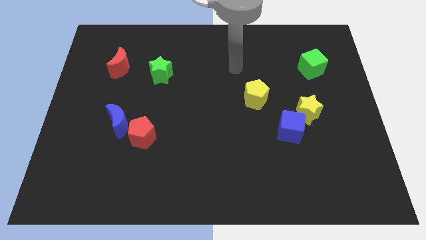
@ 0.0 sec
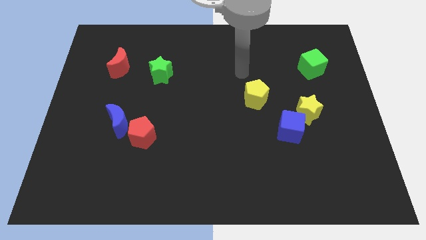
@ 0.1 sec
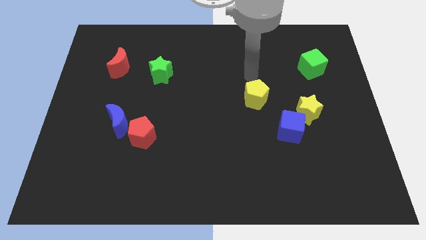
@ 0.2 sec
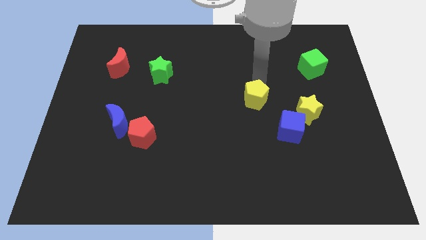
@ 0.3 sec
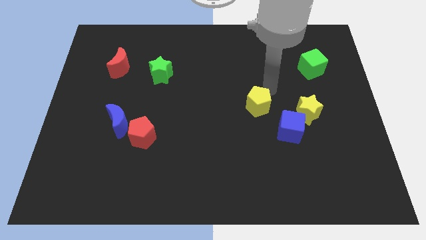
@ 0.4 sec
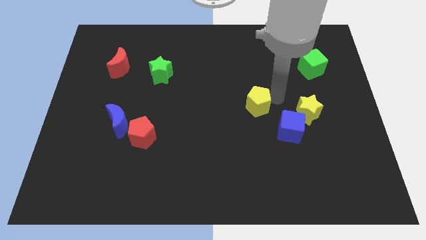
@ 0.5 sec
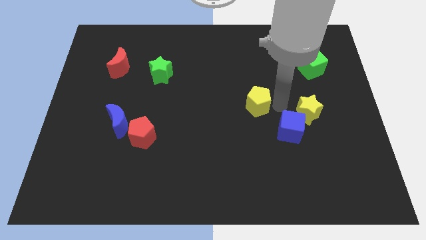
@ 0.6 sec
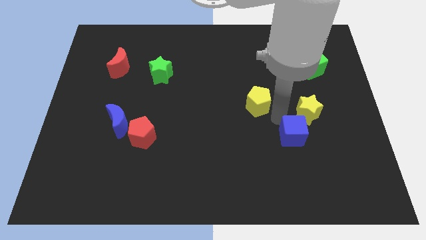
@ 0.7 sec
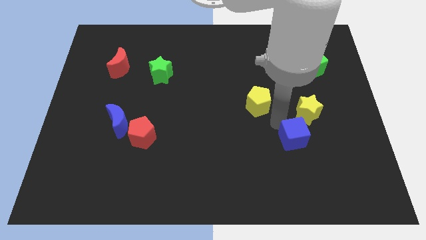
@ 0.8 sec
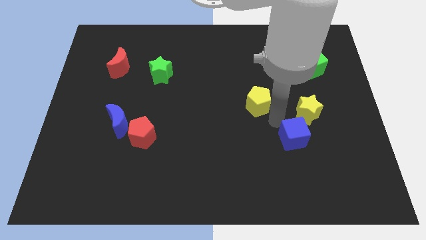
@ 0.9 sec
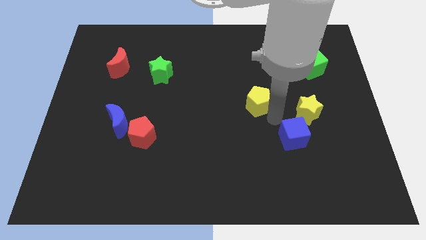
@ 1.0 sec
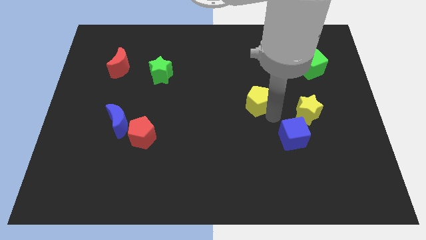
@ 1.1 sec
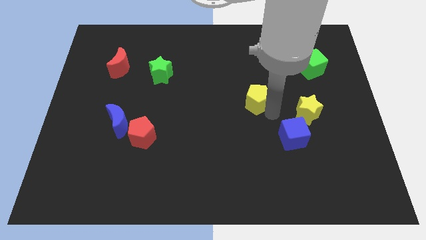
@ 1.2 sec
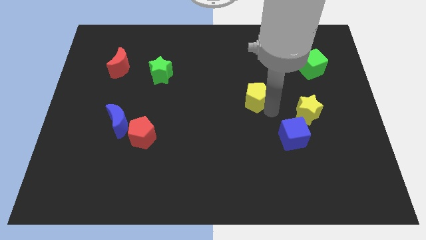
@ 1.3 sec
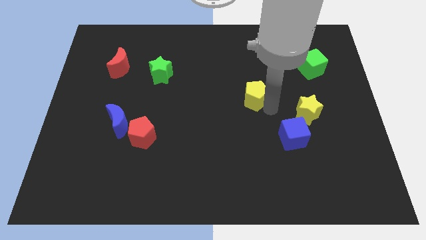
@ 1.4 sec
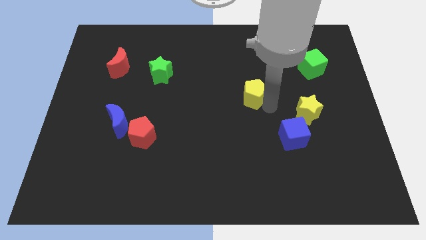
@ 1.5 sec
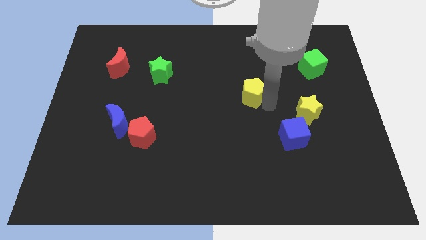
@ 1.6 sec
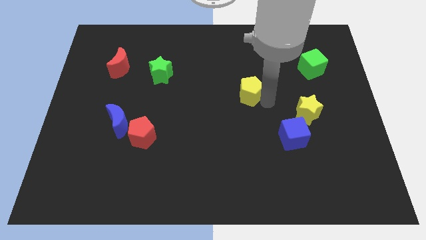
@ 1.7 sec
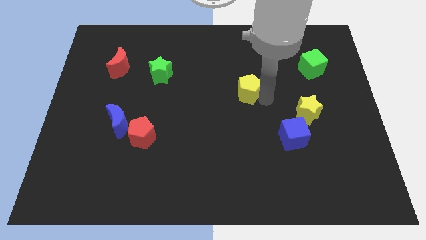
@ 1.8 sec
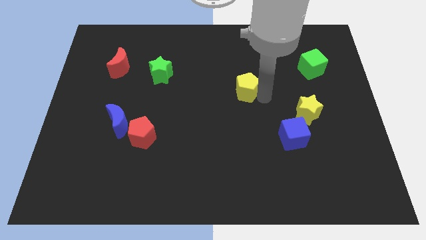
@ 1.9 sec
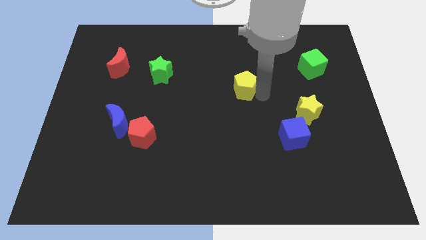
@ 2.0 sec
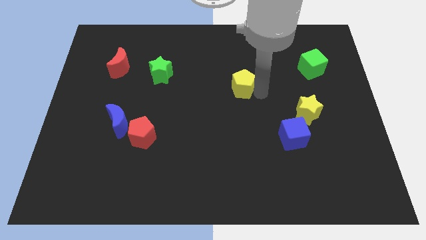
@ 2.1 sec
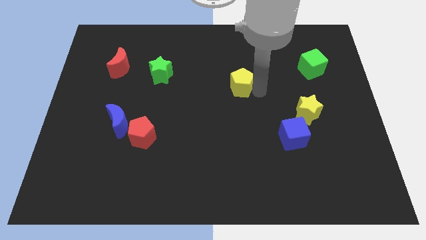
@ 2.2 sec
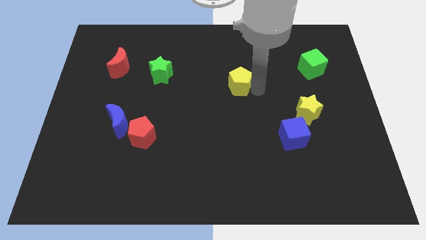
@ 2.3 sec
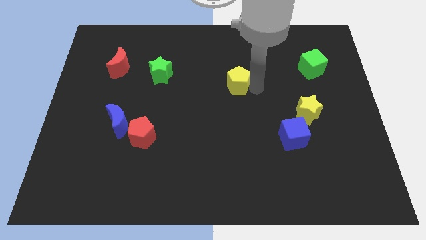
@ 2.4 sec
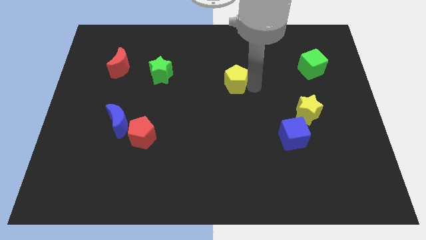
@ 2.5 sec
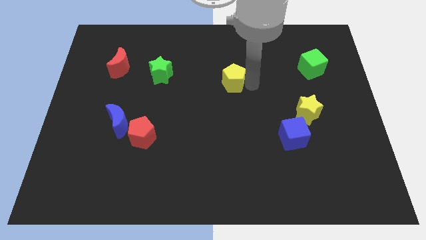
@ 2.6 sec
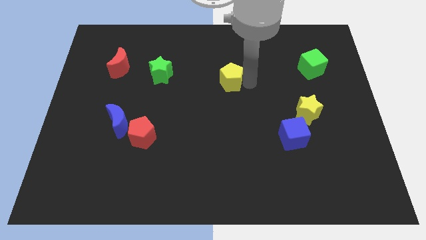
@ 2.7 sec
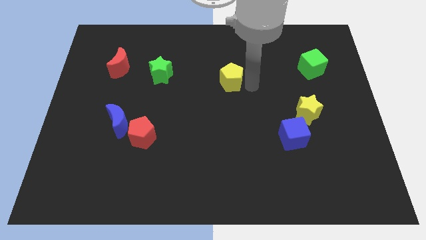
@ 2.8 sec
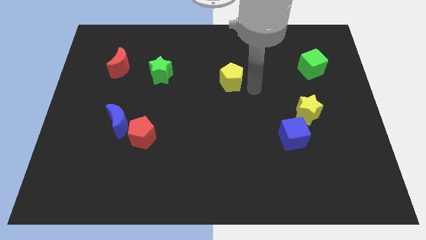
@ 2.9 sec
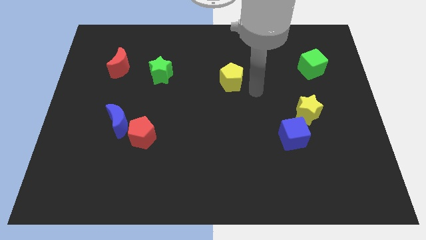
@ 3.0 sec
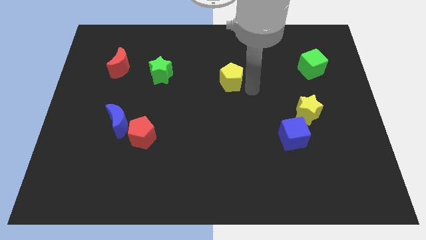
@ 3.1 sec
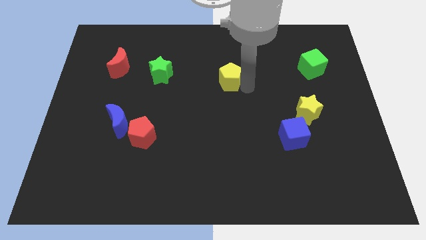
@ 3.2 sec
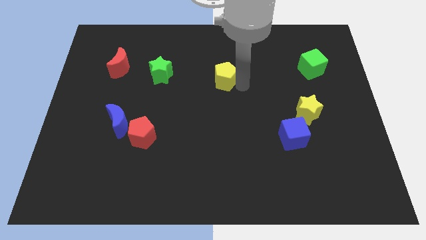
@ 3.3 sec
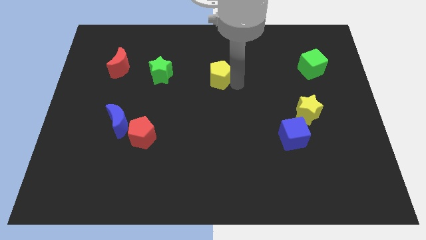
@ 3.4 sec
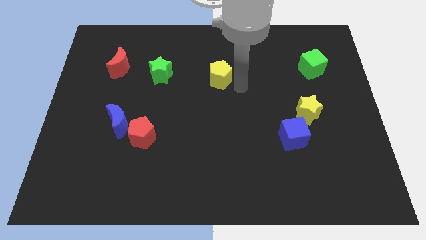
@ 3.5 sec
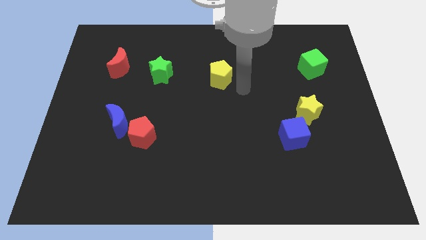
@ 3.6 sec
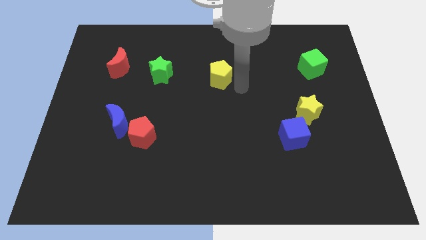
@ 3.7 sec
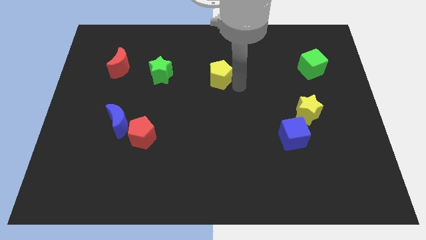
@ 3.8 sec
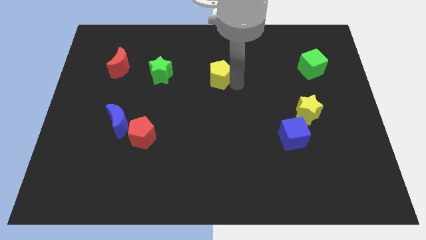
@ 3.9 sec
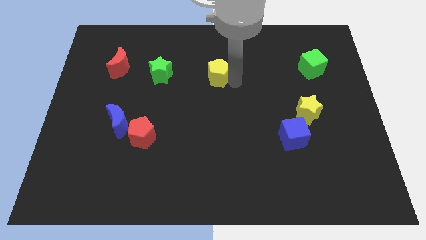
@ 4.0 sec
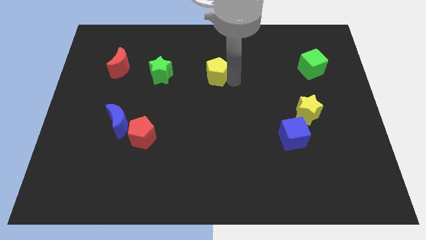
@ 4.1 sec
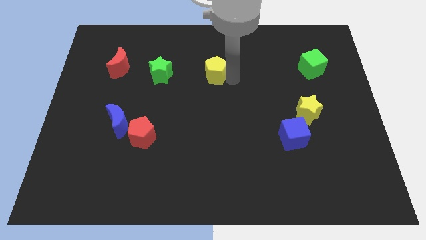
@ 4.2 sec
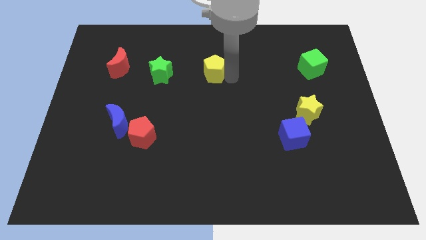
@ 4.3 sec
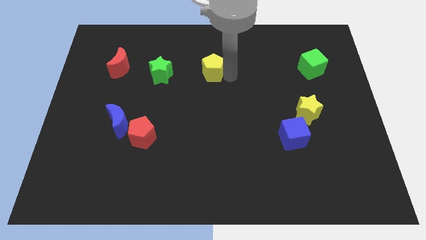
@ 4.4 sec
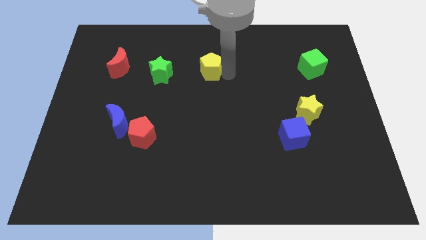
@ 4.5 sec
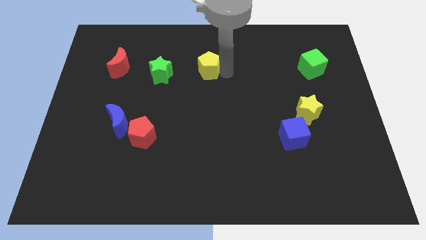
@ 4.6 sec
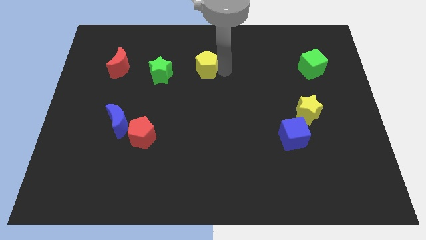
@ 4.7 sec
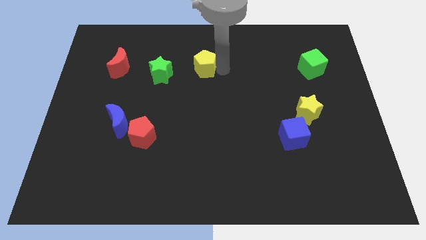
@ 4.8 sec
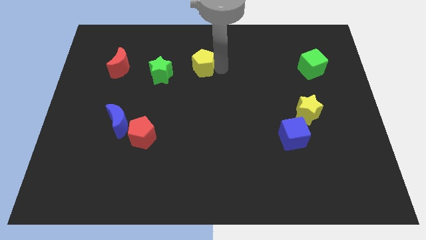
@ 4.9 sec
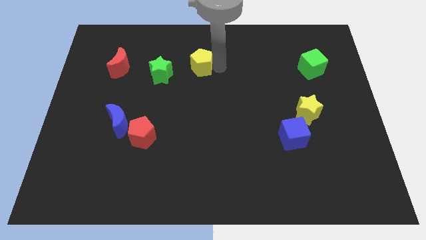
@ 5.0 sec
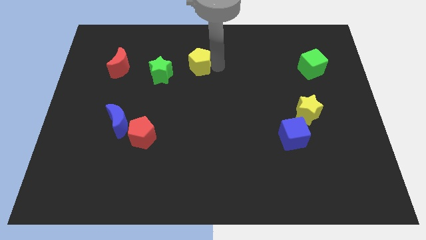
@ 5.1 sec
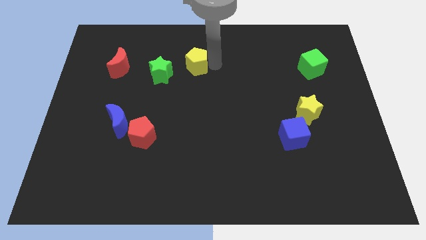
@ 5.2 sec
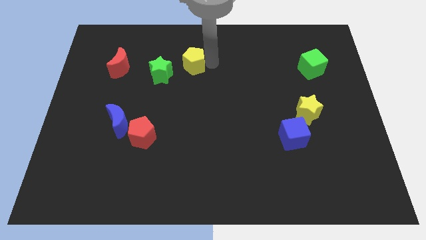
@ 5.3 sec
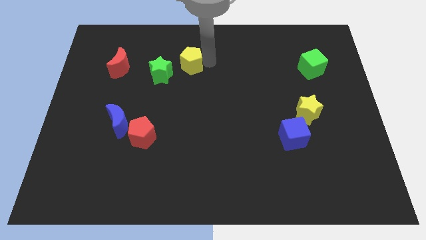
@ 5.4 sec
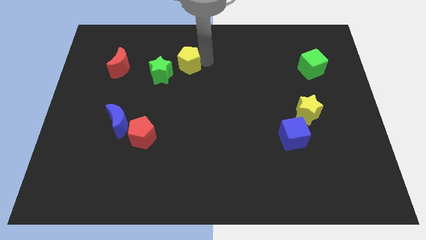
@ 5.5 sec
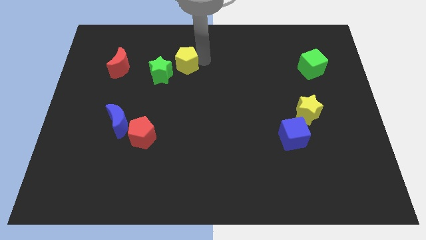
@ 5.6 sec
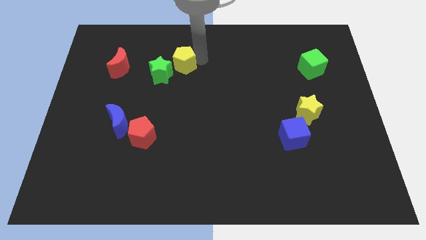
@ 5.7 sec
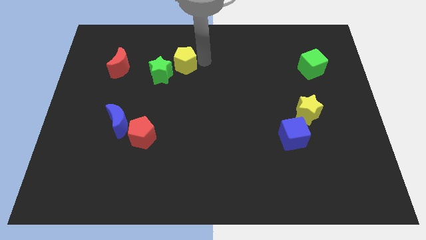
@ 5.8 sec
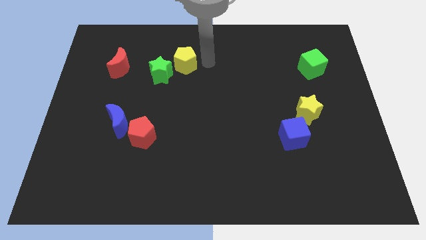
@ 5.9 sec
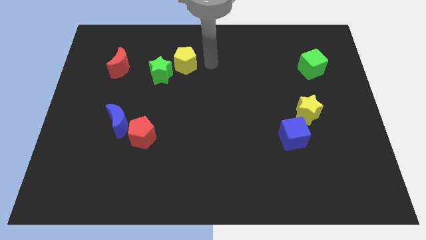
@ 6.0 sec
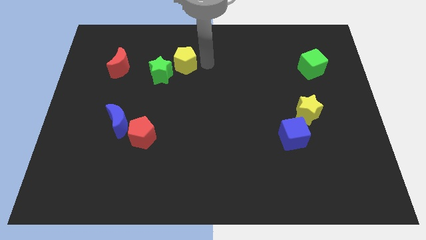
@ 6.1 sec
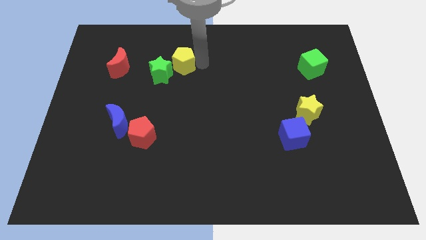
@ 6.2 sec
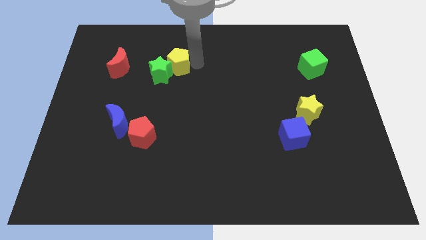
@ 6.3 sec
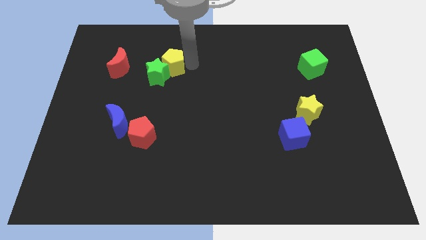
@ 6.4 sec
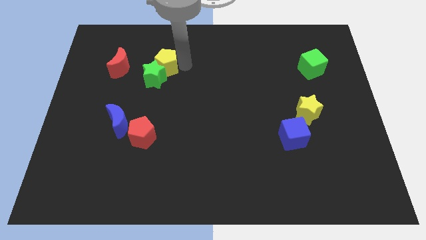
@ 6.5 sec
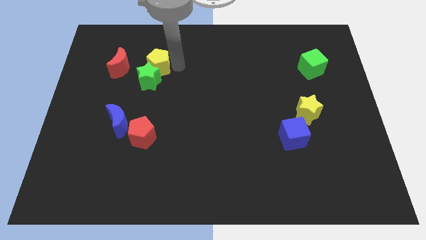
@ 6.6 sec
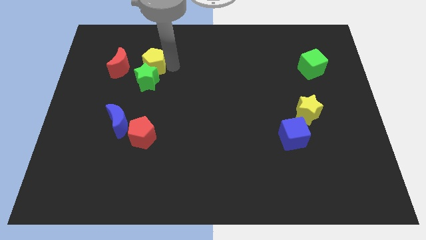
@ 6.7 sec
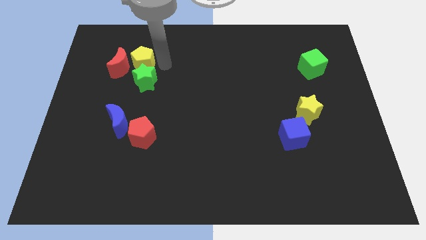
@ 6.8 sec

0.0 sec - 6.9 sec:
move the yellow pentagon close to the red moon

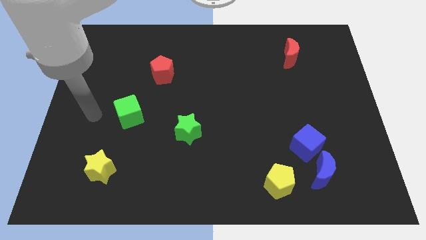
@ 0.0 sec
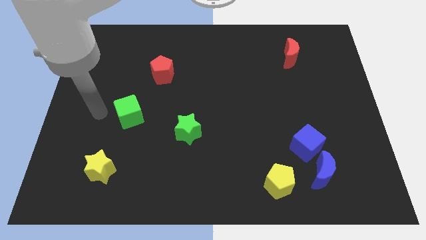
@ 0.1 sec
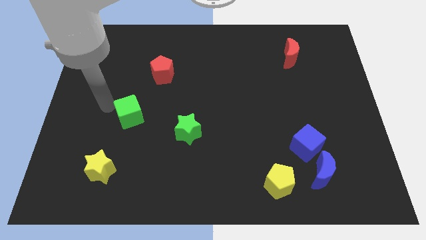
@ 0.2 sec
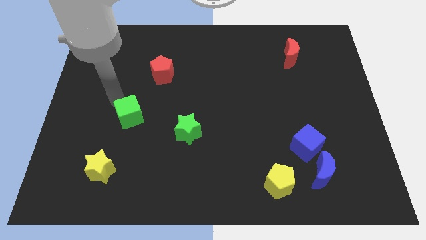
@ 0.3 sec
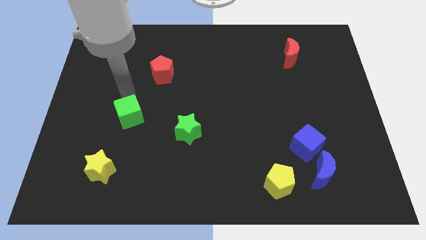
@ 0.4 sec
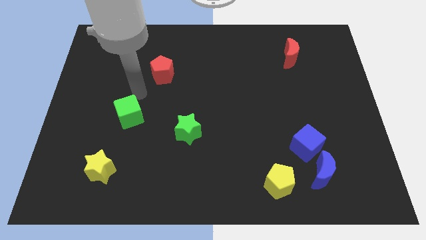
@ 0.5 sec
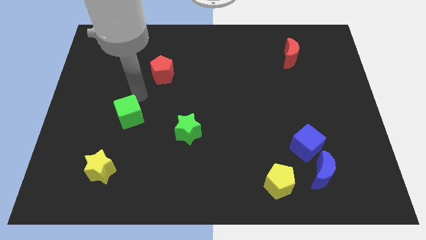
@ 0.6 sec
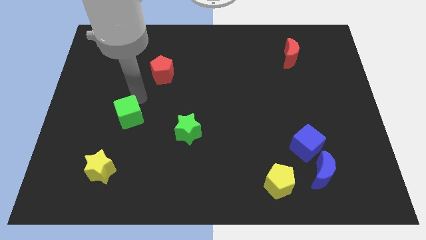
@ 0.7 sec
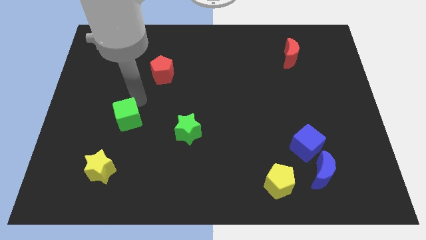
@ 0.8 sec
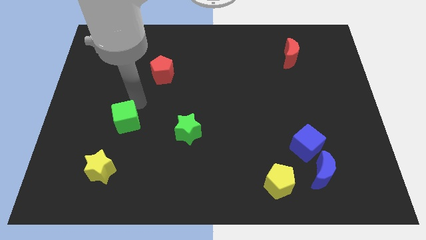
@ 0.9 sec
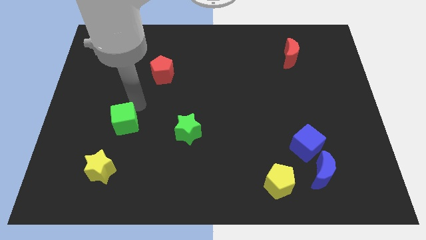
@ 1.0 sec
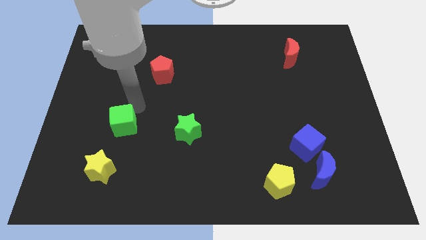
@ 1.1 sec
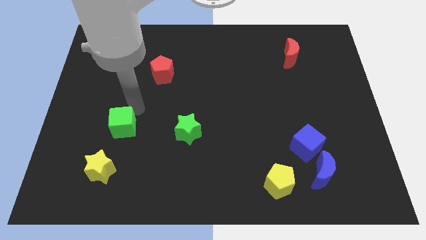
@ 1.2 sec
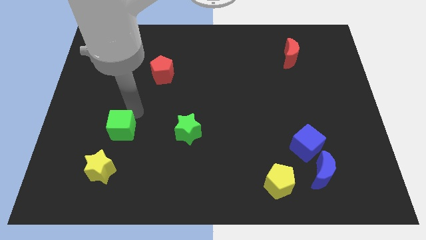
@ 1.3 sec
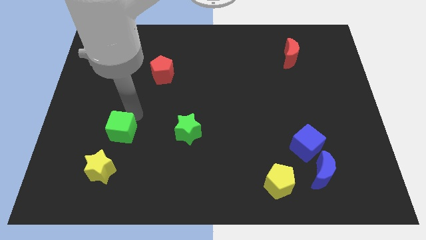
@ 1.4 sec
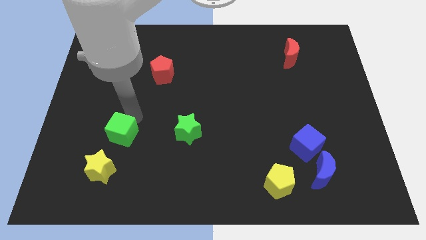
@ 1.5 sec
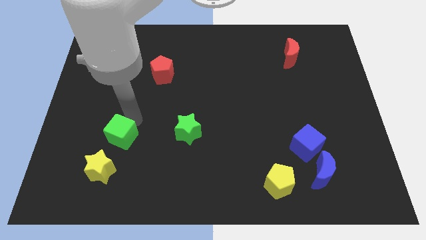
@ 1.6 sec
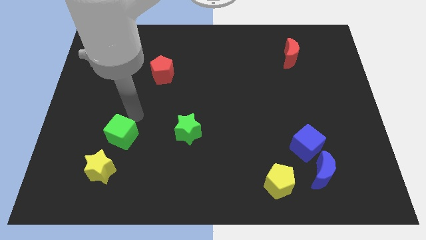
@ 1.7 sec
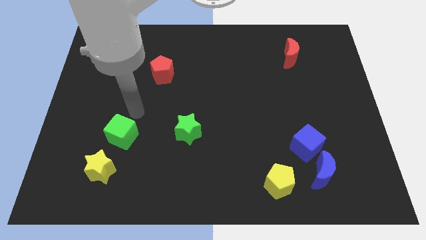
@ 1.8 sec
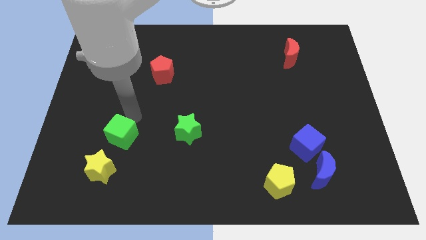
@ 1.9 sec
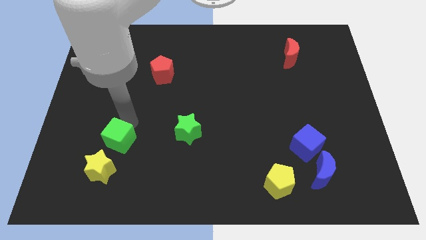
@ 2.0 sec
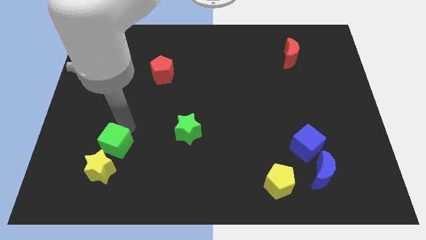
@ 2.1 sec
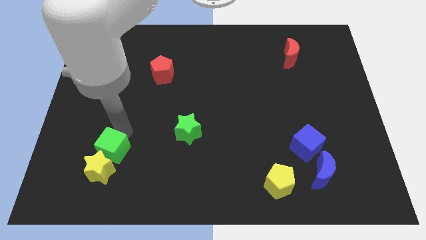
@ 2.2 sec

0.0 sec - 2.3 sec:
slide the green cube next to the yellow star
